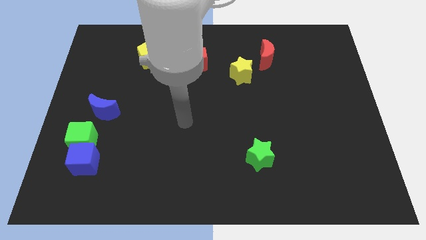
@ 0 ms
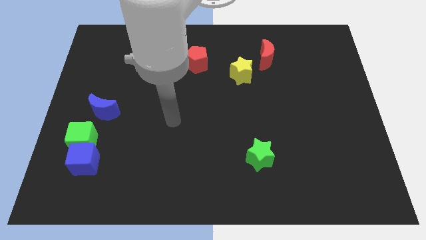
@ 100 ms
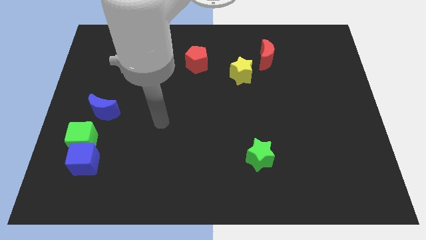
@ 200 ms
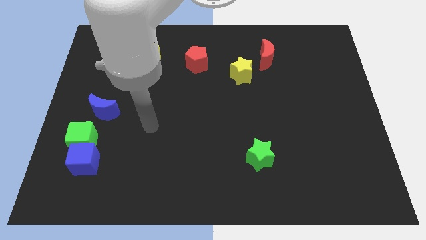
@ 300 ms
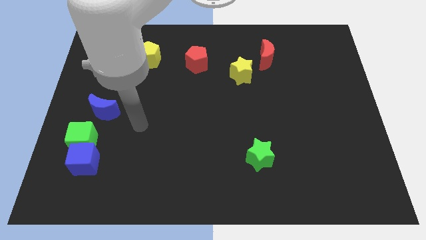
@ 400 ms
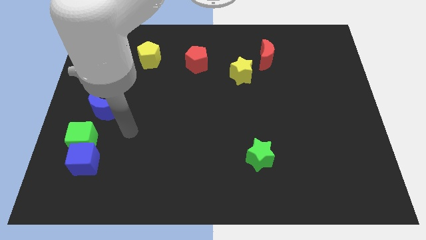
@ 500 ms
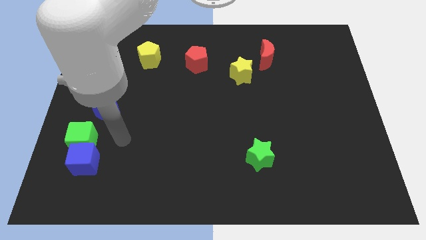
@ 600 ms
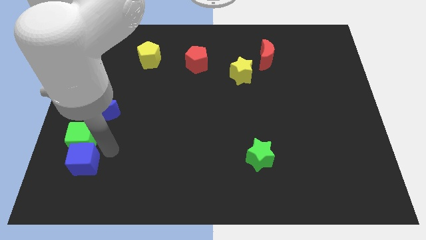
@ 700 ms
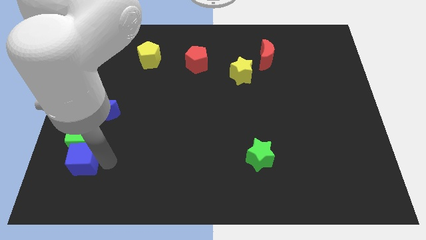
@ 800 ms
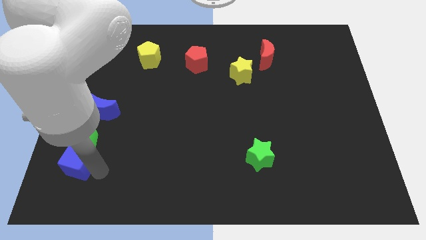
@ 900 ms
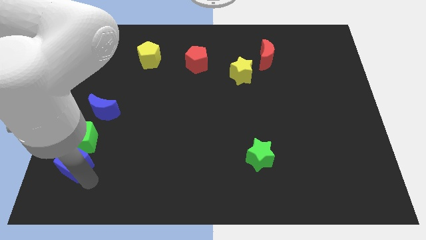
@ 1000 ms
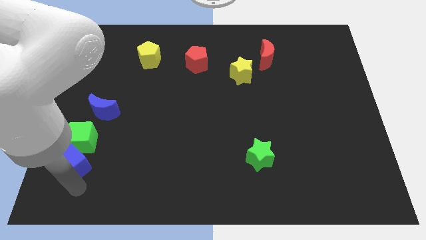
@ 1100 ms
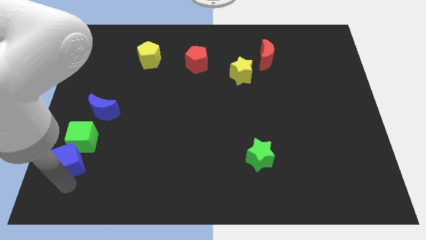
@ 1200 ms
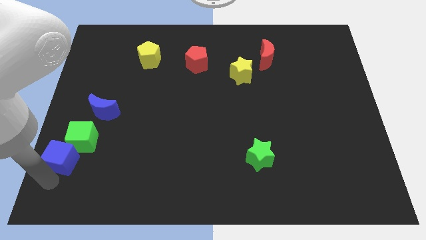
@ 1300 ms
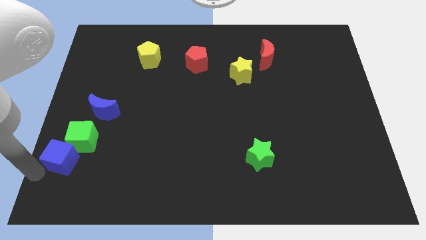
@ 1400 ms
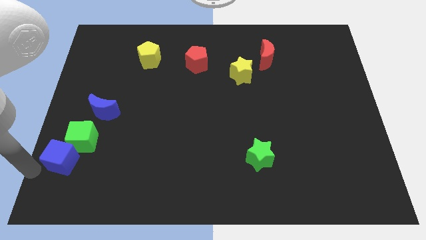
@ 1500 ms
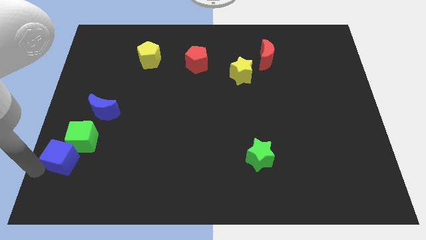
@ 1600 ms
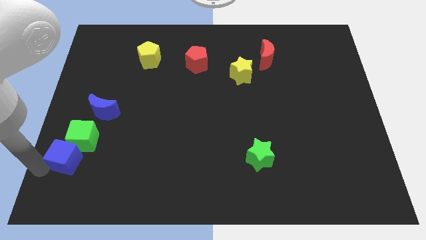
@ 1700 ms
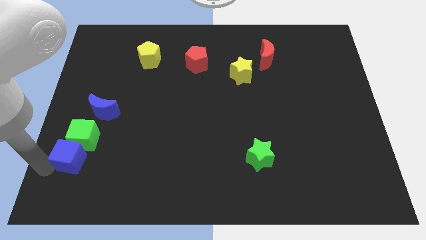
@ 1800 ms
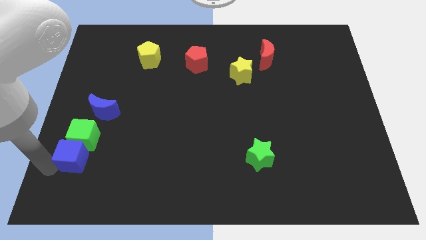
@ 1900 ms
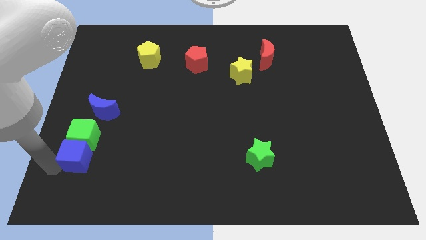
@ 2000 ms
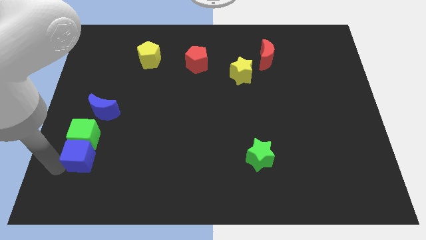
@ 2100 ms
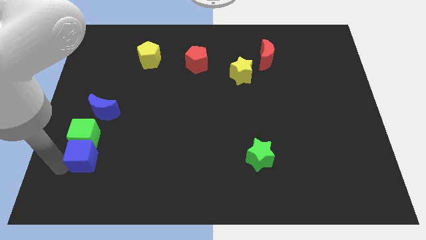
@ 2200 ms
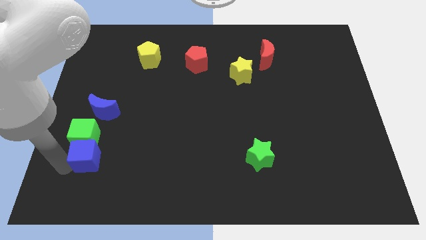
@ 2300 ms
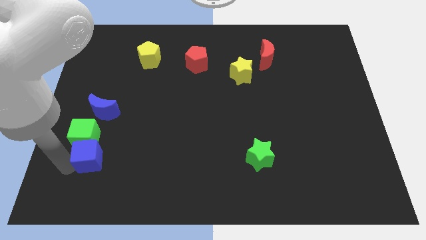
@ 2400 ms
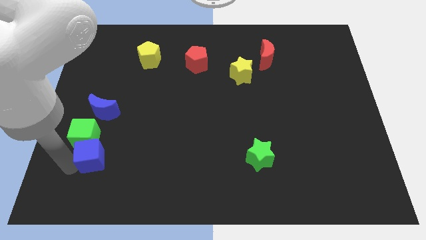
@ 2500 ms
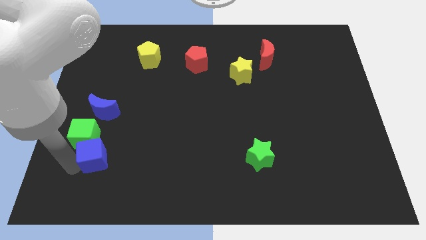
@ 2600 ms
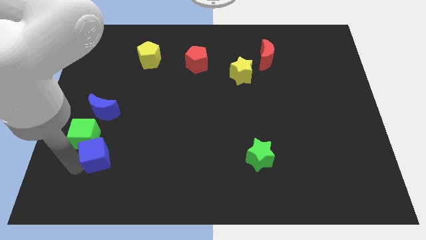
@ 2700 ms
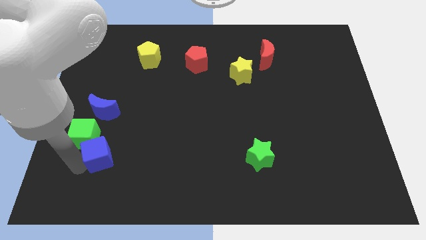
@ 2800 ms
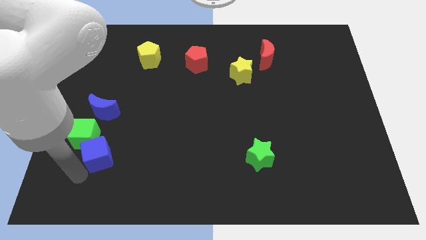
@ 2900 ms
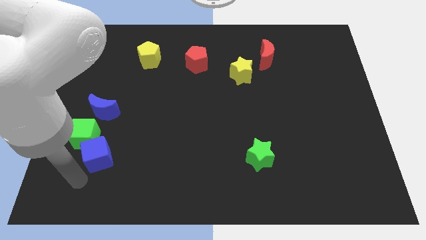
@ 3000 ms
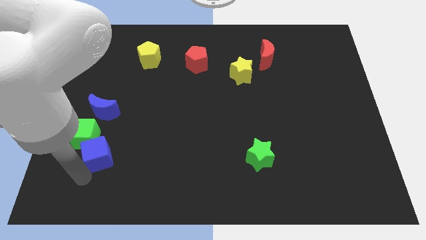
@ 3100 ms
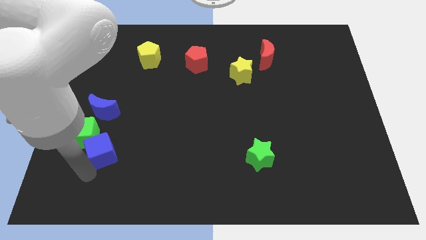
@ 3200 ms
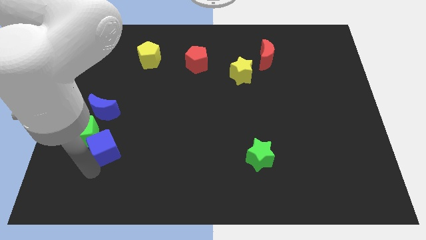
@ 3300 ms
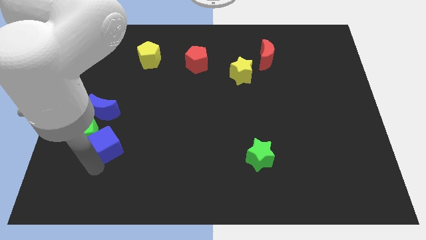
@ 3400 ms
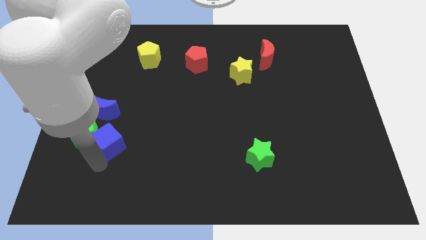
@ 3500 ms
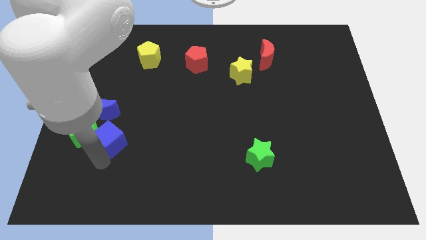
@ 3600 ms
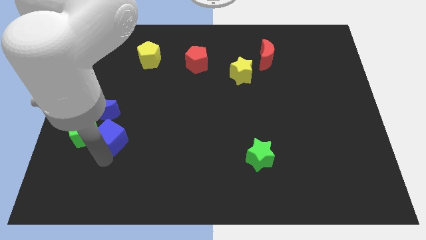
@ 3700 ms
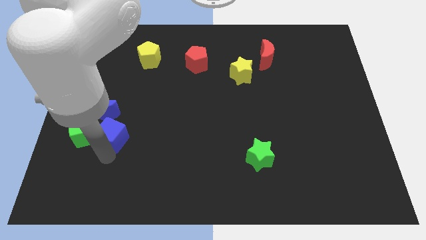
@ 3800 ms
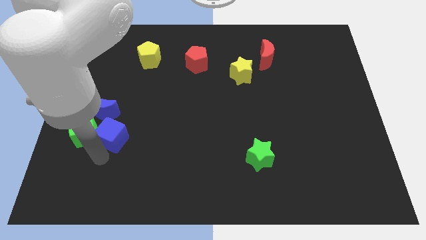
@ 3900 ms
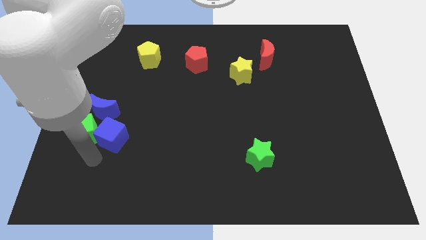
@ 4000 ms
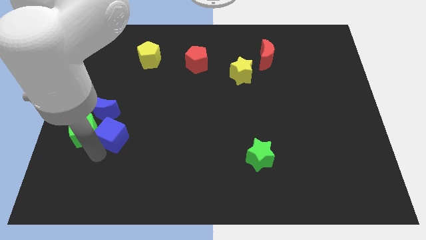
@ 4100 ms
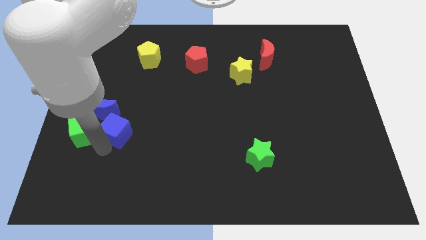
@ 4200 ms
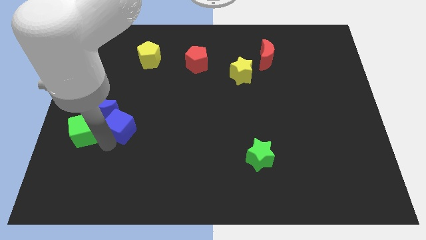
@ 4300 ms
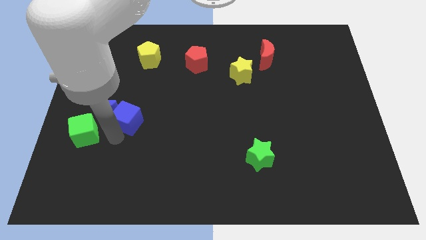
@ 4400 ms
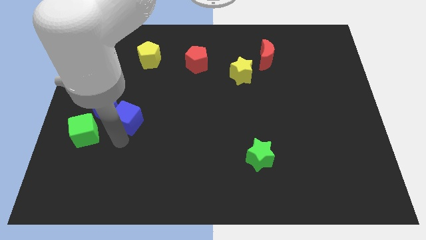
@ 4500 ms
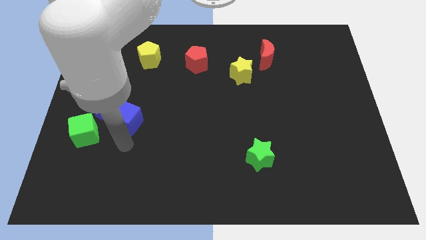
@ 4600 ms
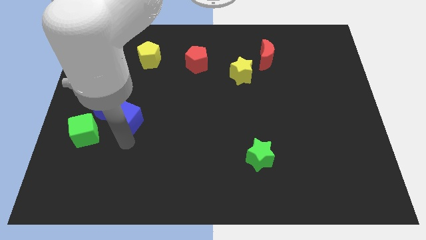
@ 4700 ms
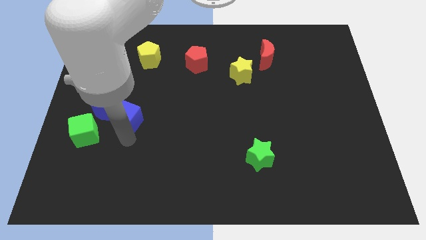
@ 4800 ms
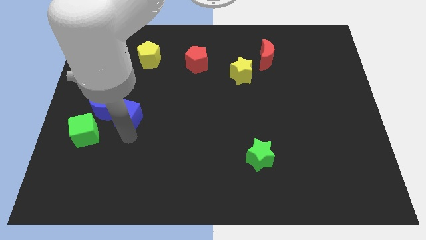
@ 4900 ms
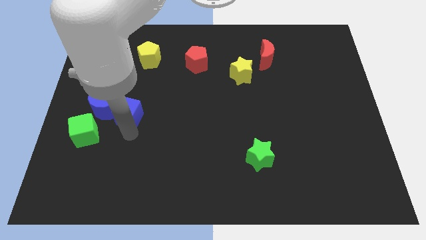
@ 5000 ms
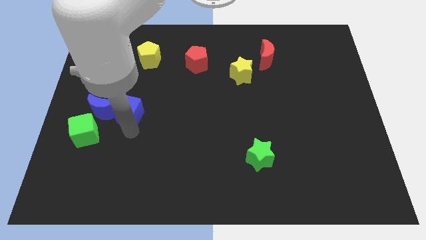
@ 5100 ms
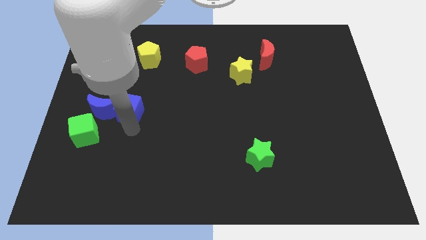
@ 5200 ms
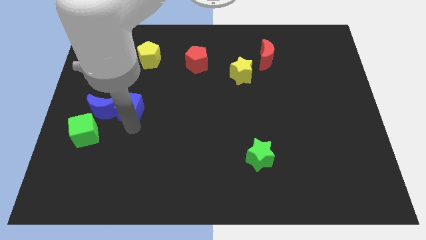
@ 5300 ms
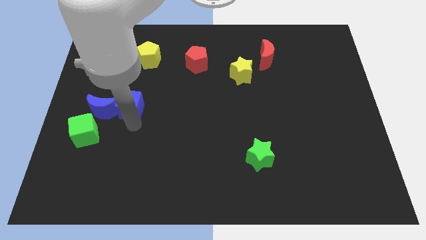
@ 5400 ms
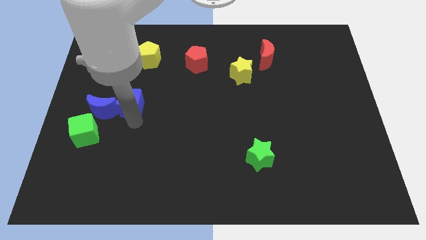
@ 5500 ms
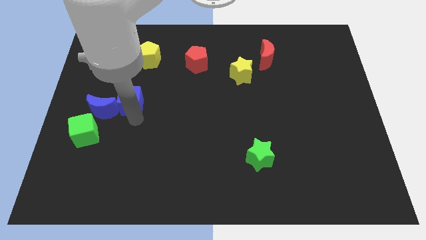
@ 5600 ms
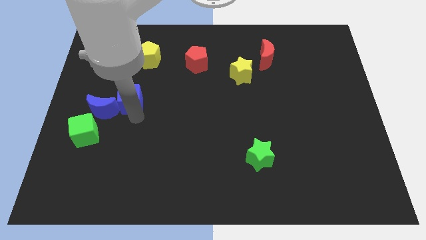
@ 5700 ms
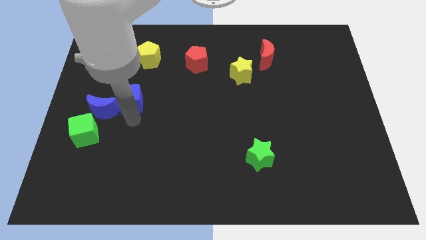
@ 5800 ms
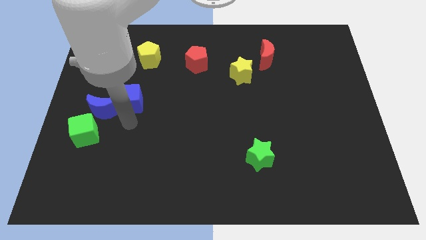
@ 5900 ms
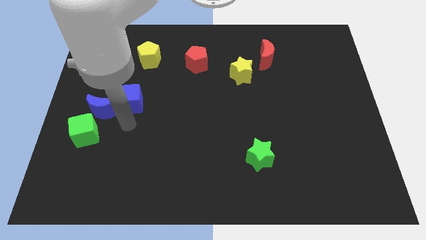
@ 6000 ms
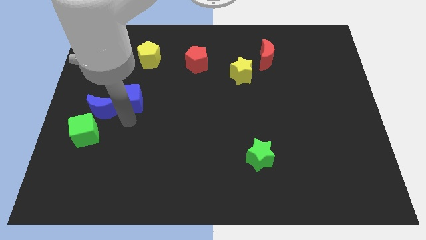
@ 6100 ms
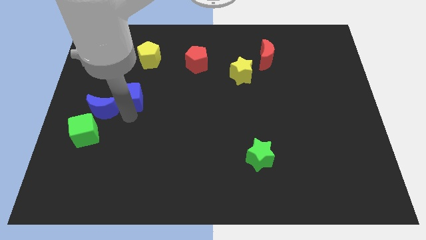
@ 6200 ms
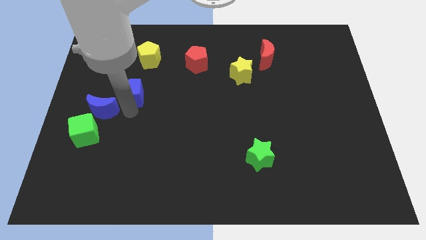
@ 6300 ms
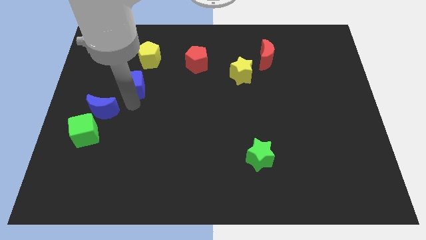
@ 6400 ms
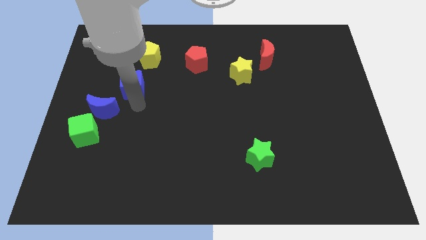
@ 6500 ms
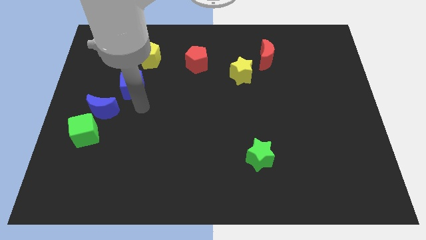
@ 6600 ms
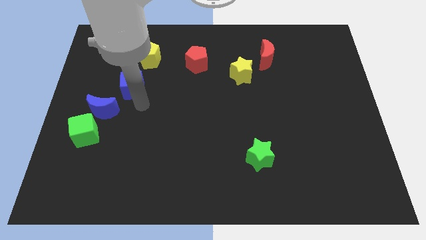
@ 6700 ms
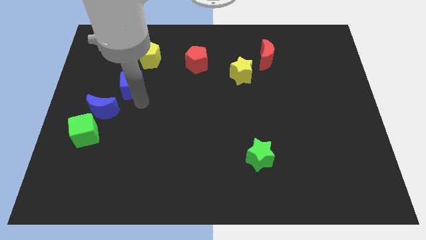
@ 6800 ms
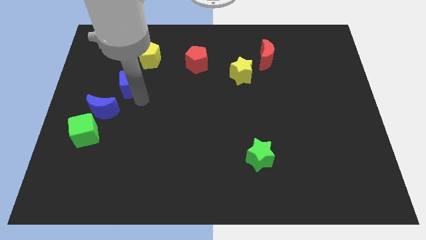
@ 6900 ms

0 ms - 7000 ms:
slide the blue cube to the bottom left side of the yellow pentagon
